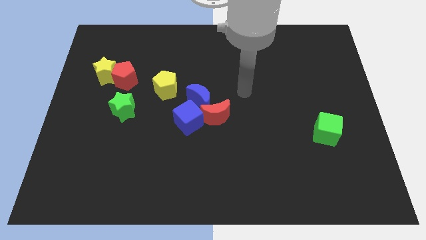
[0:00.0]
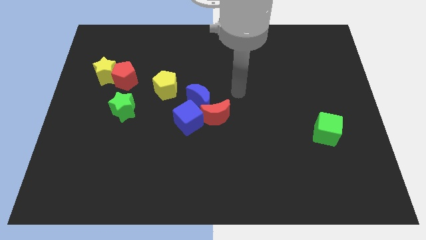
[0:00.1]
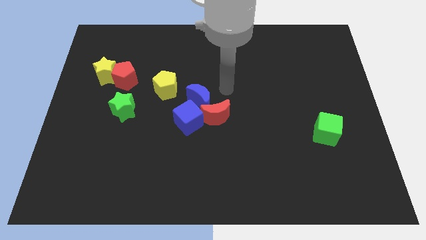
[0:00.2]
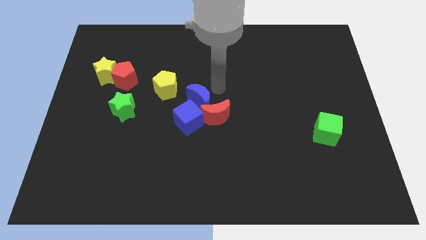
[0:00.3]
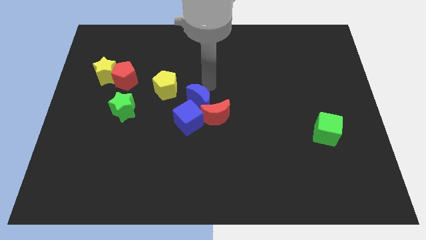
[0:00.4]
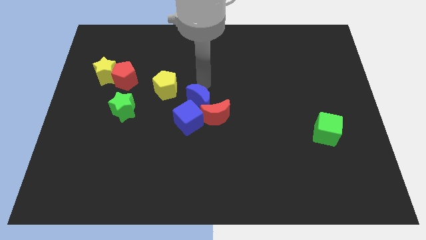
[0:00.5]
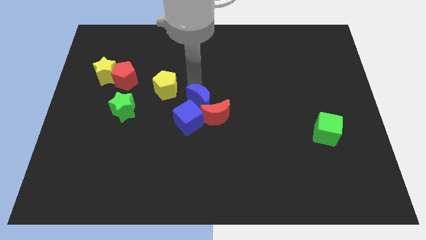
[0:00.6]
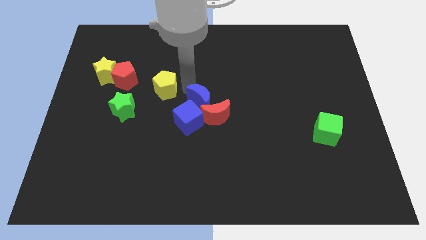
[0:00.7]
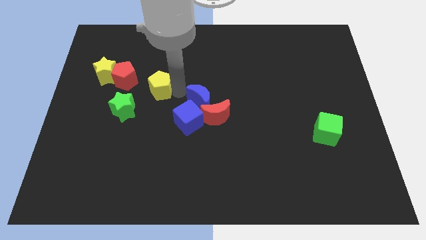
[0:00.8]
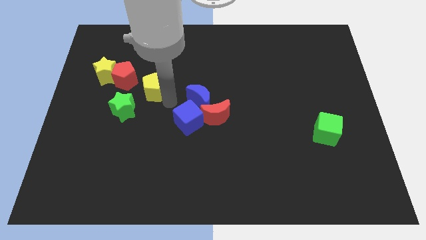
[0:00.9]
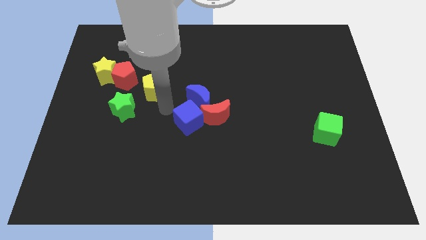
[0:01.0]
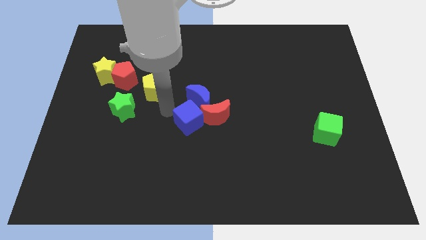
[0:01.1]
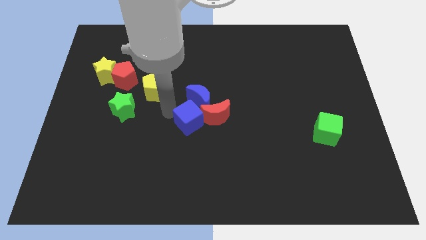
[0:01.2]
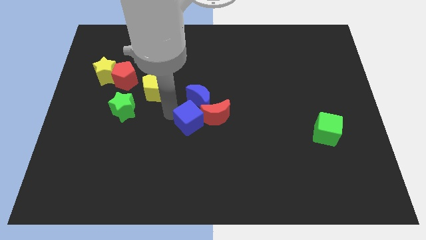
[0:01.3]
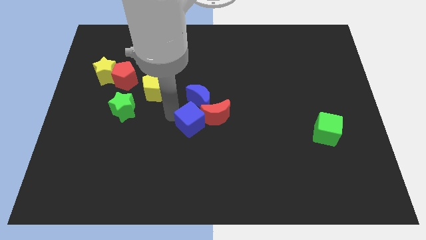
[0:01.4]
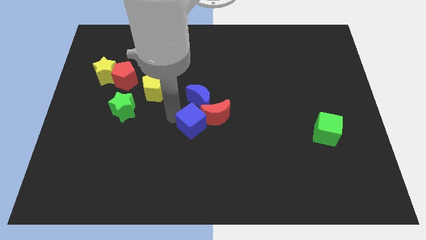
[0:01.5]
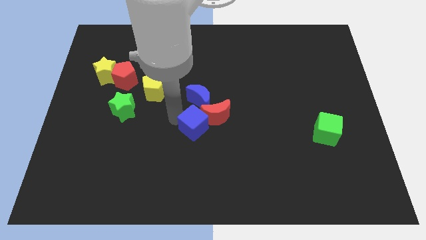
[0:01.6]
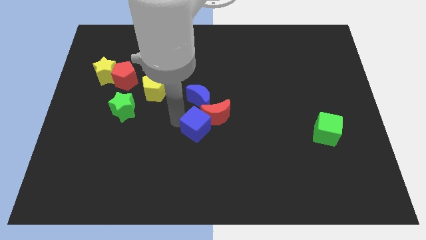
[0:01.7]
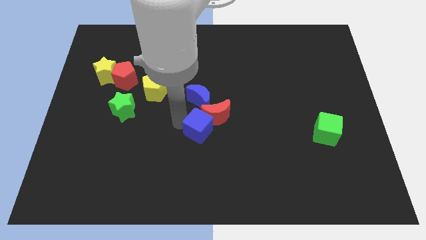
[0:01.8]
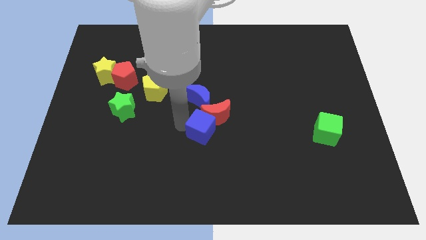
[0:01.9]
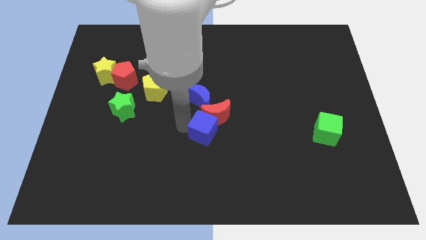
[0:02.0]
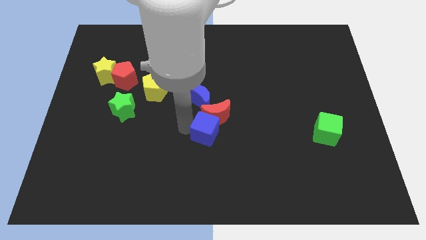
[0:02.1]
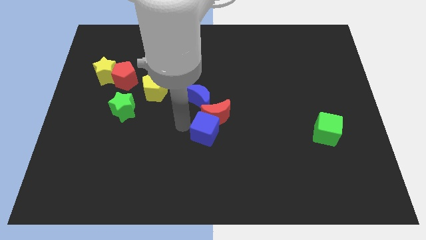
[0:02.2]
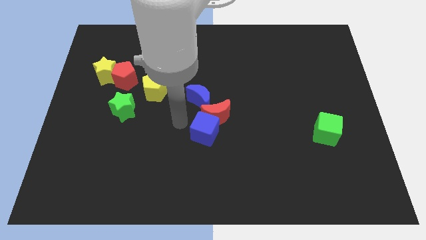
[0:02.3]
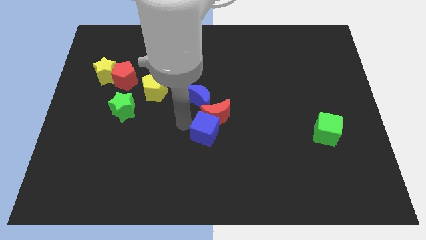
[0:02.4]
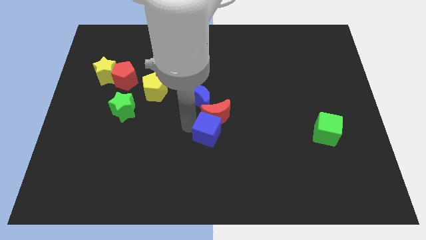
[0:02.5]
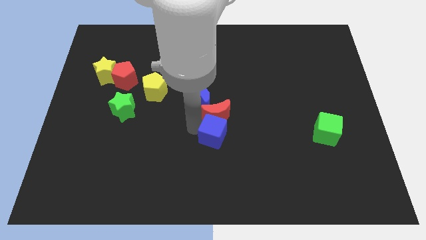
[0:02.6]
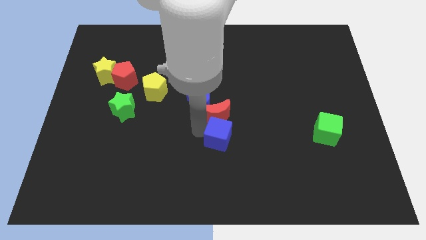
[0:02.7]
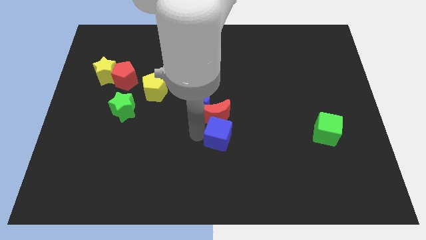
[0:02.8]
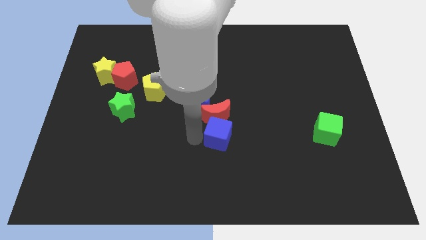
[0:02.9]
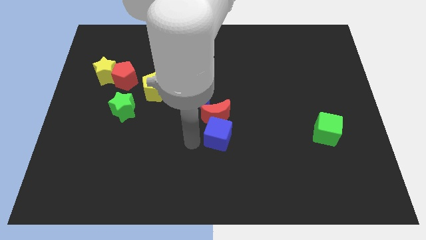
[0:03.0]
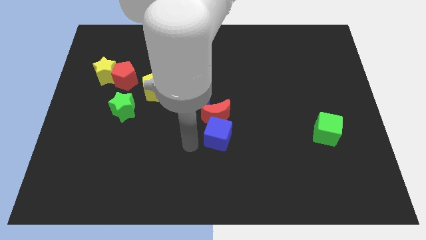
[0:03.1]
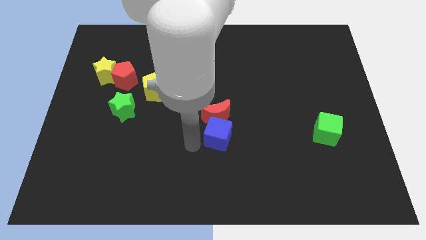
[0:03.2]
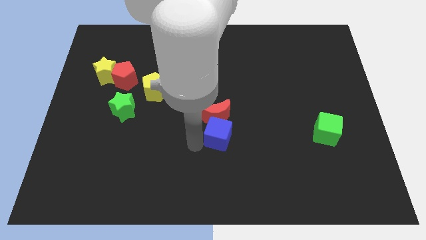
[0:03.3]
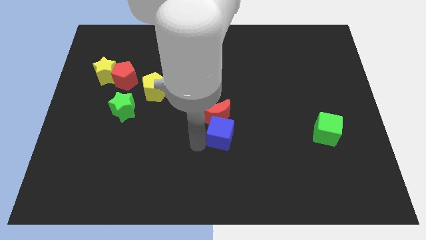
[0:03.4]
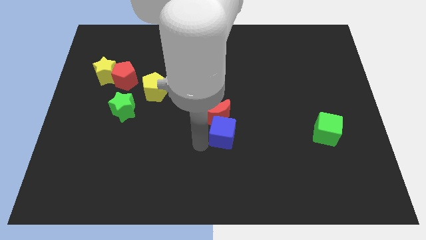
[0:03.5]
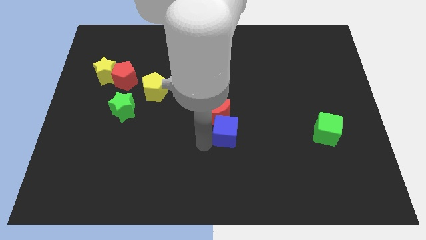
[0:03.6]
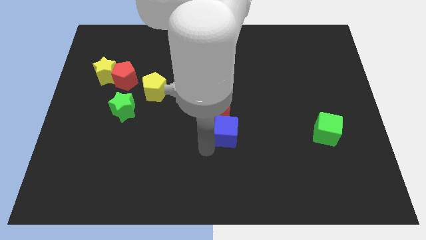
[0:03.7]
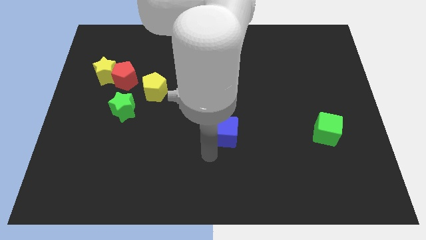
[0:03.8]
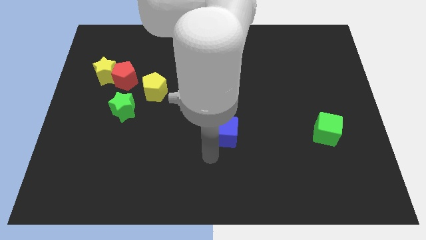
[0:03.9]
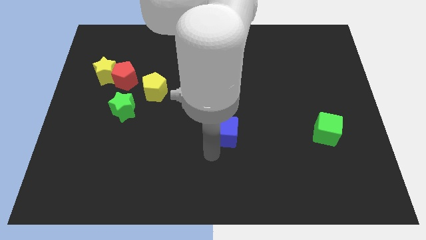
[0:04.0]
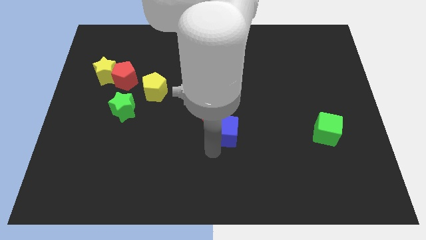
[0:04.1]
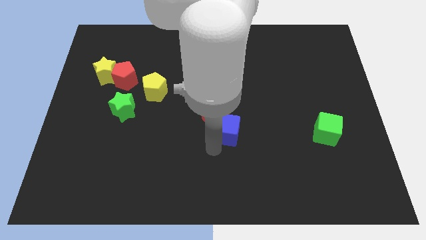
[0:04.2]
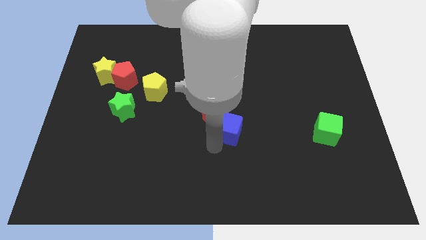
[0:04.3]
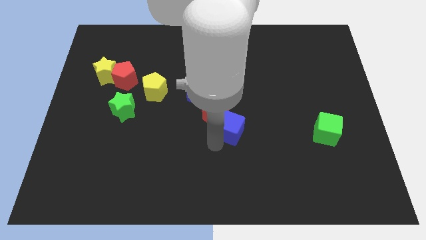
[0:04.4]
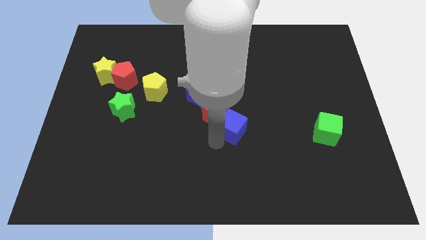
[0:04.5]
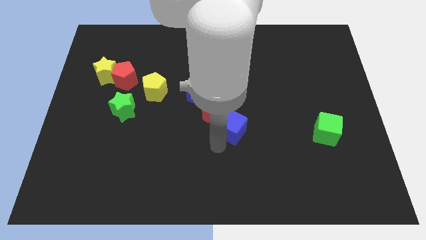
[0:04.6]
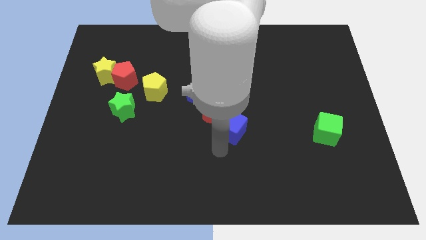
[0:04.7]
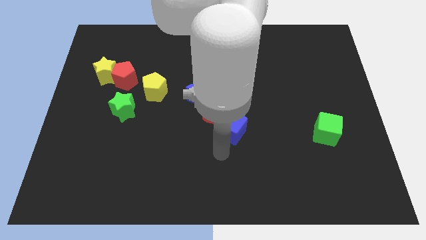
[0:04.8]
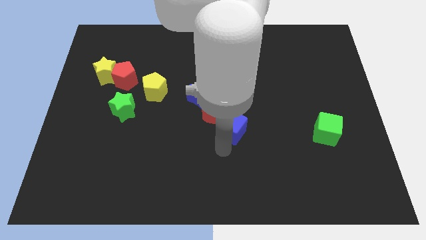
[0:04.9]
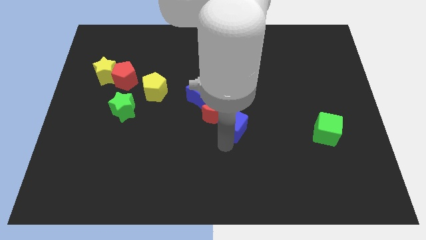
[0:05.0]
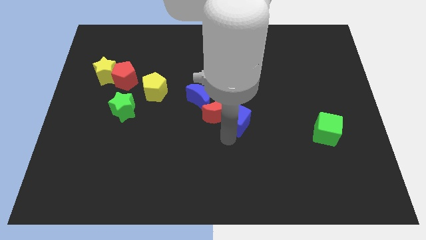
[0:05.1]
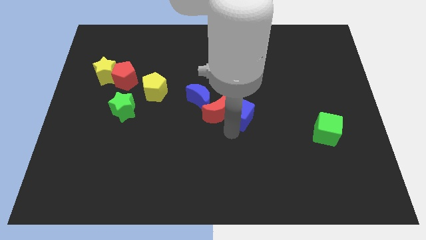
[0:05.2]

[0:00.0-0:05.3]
push the blue cube somewhat up and right

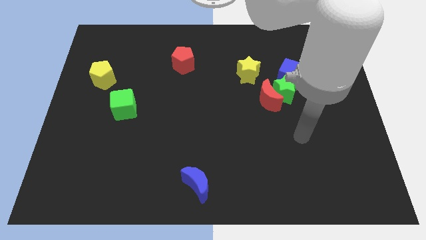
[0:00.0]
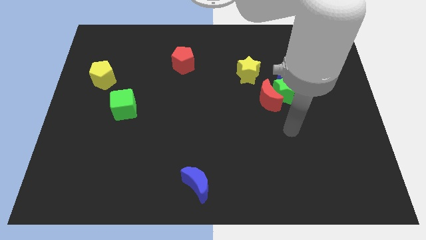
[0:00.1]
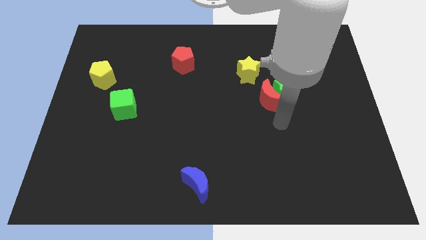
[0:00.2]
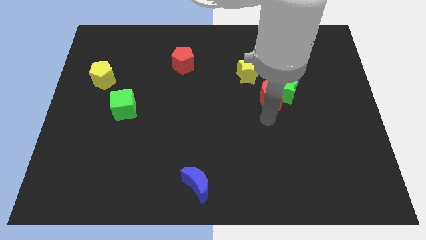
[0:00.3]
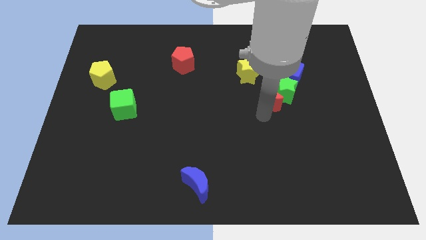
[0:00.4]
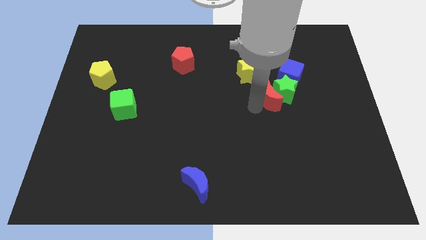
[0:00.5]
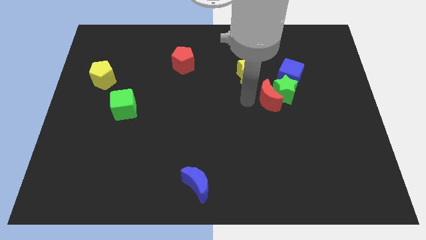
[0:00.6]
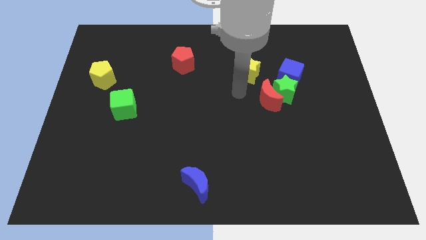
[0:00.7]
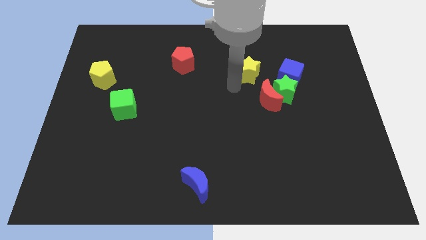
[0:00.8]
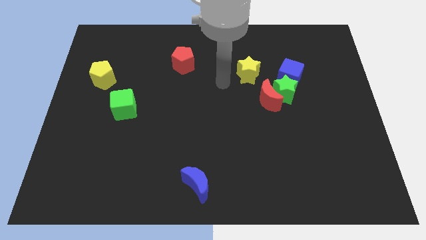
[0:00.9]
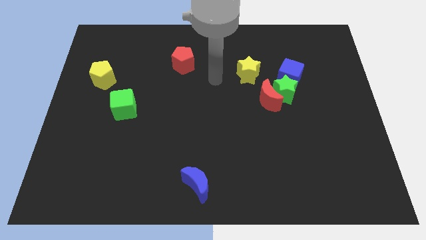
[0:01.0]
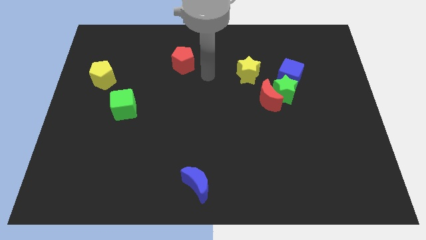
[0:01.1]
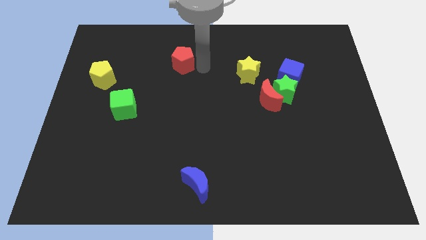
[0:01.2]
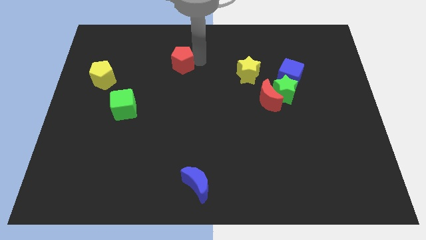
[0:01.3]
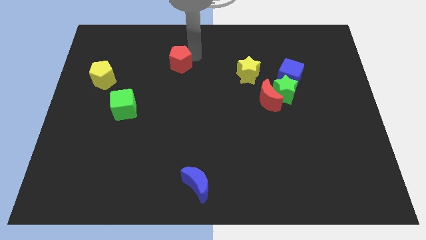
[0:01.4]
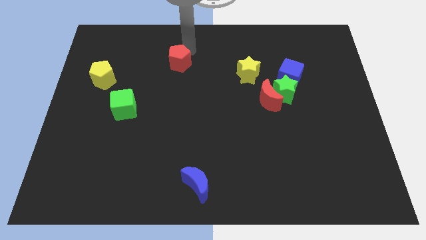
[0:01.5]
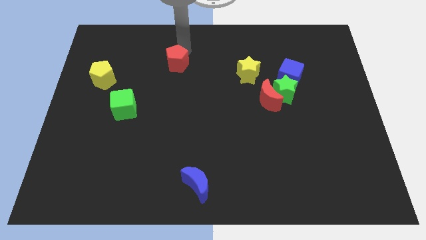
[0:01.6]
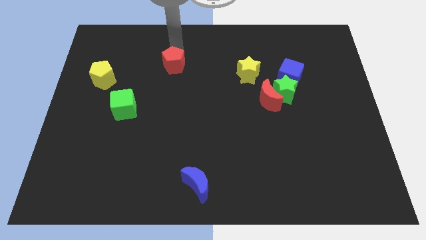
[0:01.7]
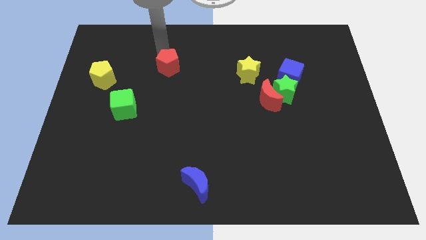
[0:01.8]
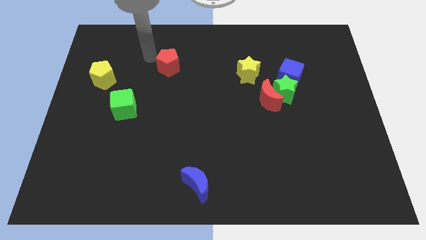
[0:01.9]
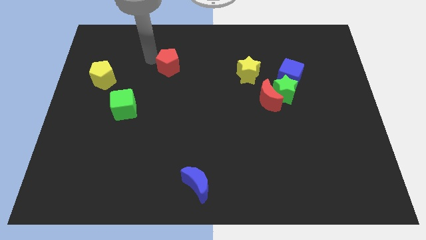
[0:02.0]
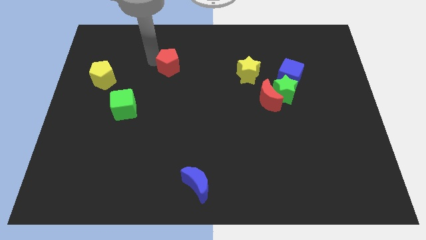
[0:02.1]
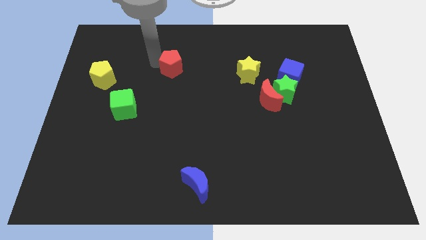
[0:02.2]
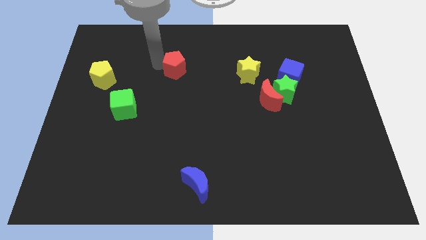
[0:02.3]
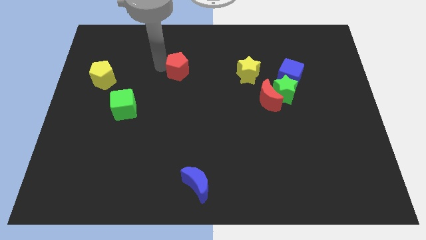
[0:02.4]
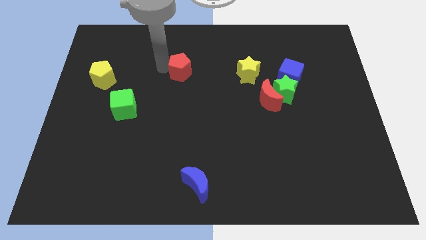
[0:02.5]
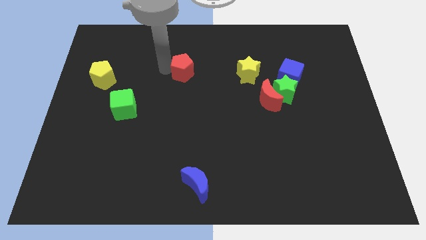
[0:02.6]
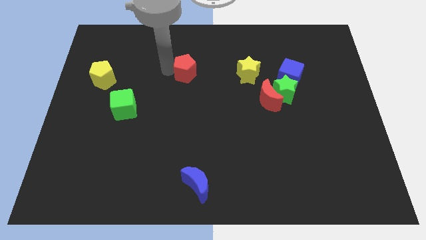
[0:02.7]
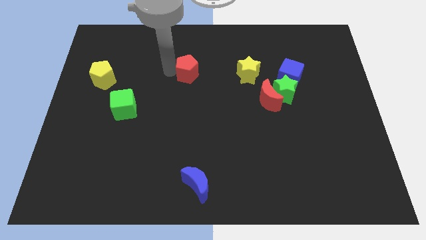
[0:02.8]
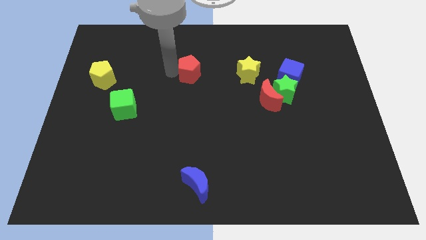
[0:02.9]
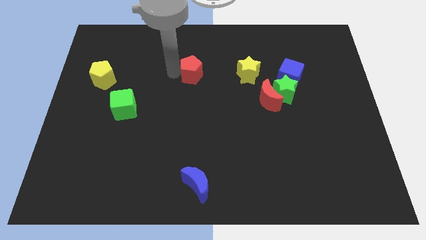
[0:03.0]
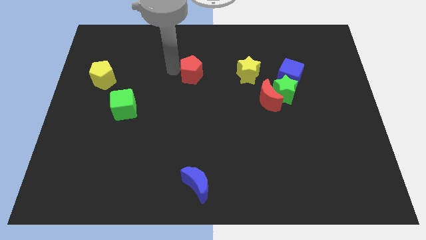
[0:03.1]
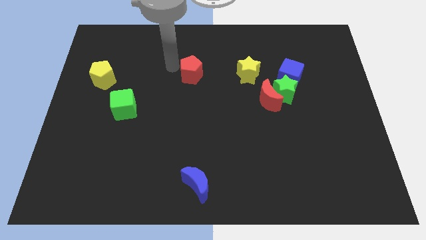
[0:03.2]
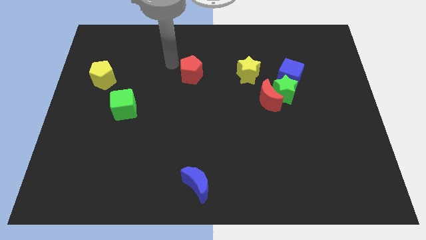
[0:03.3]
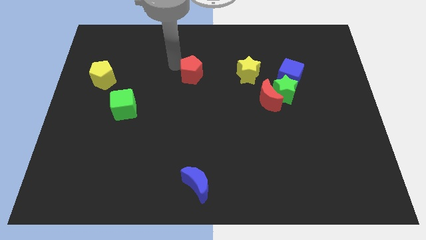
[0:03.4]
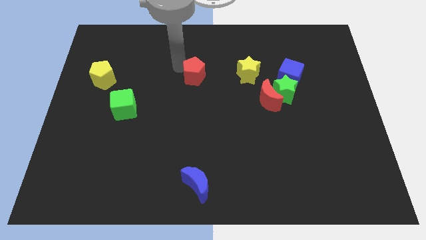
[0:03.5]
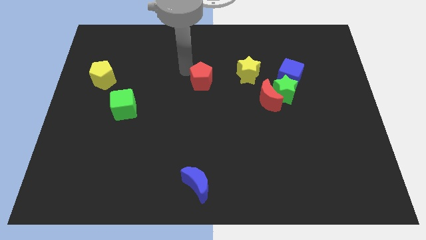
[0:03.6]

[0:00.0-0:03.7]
slightly move the red pentagon down and right
